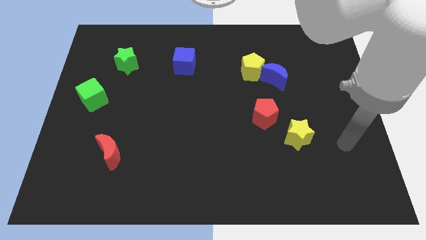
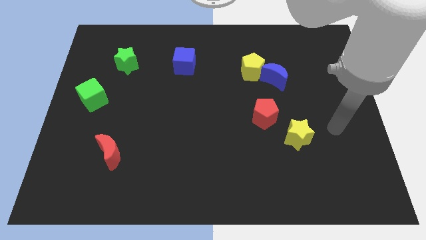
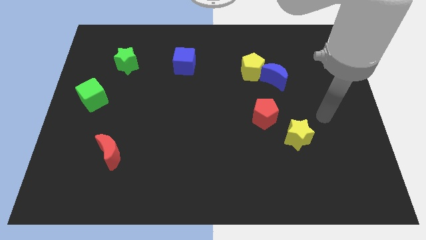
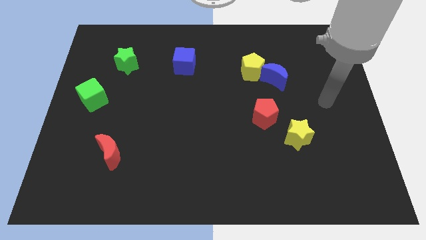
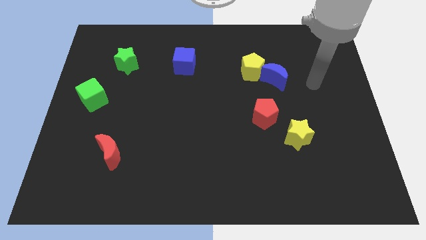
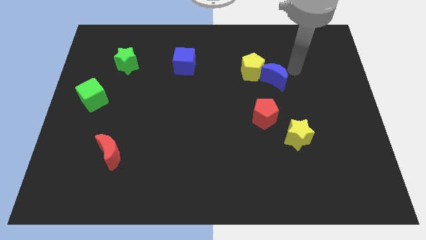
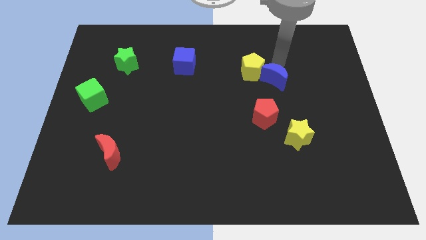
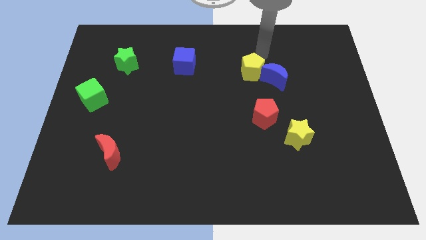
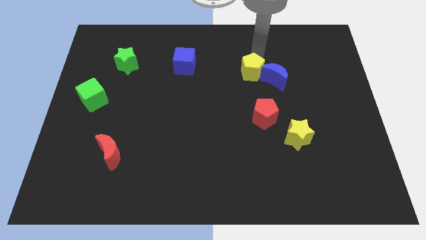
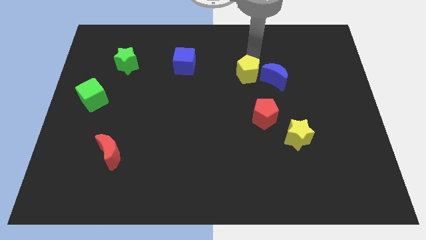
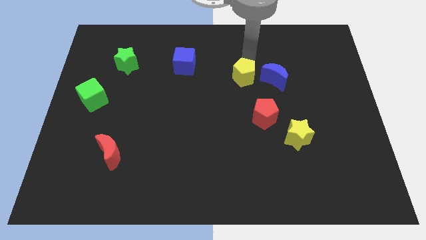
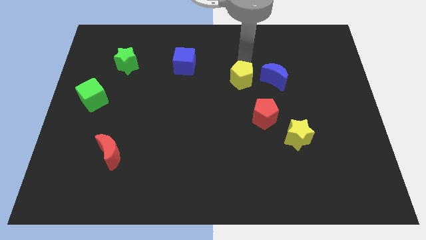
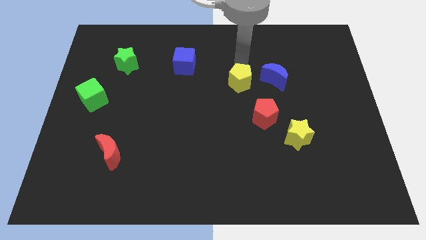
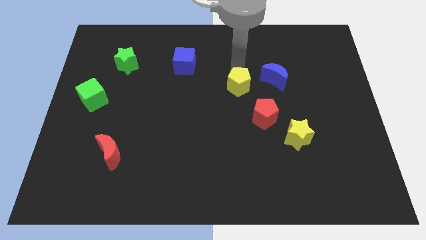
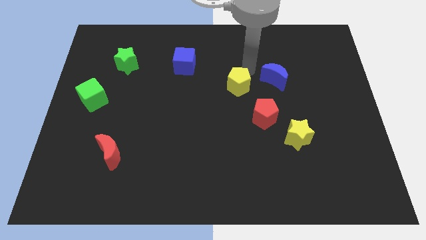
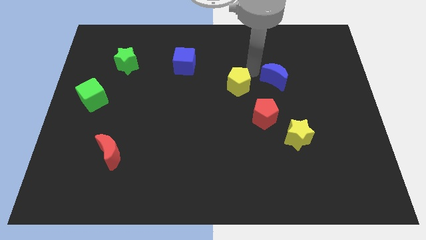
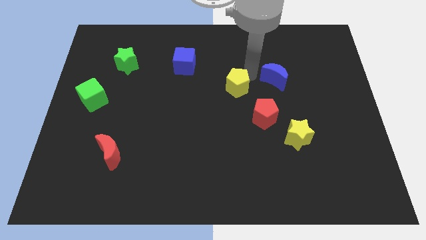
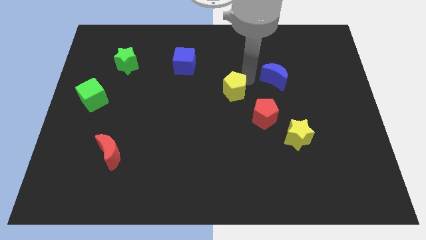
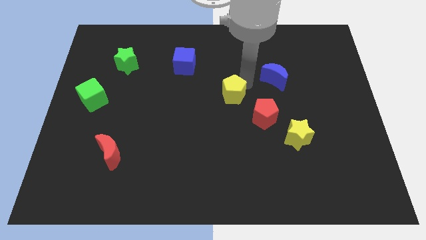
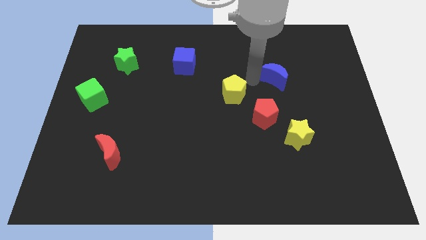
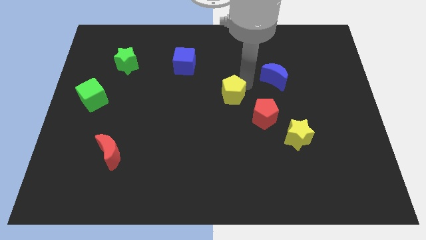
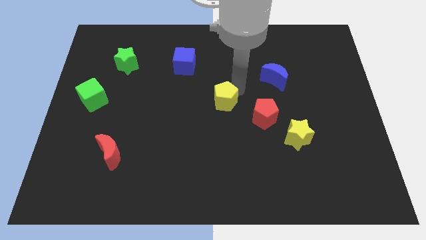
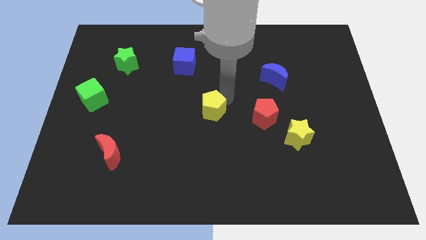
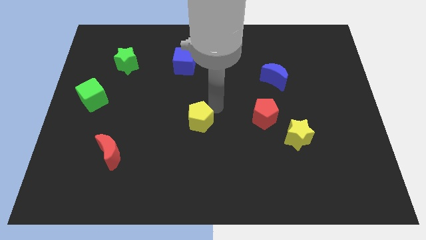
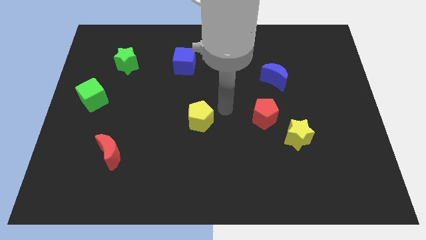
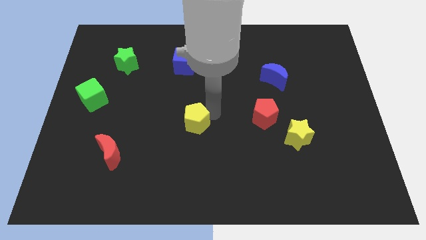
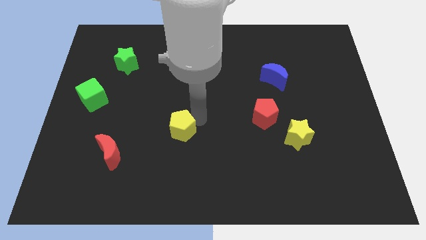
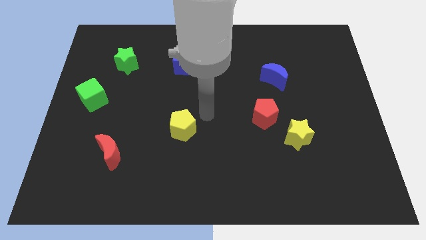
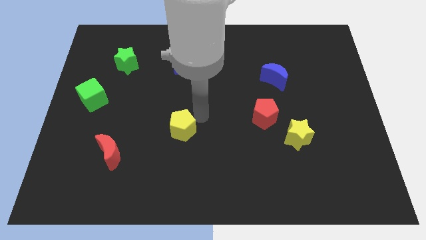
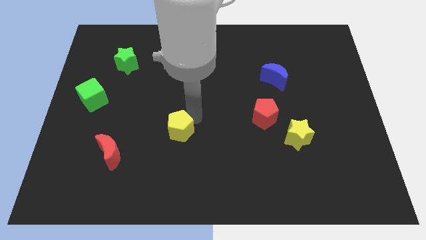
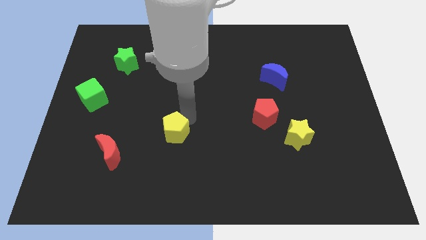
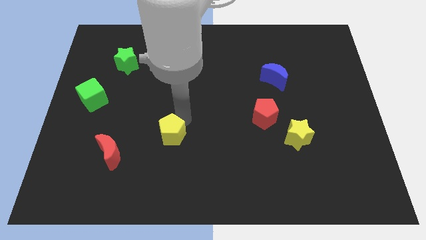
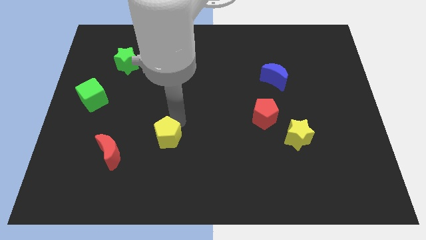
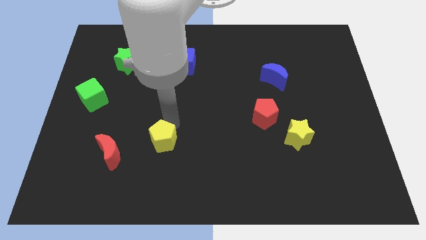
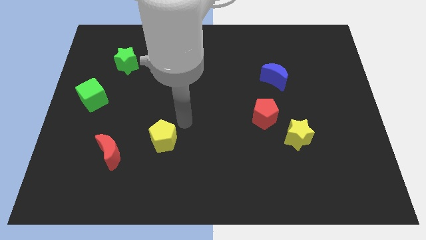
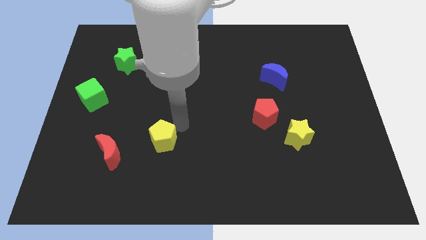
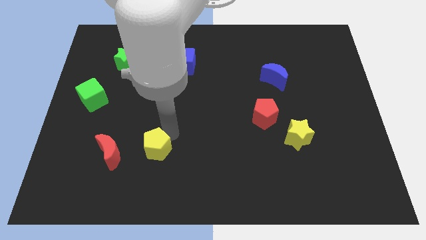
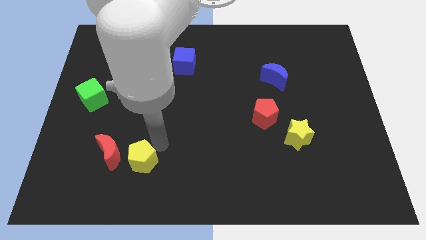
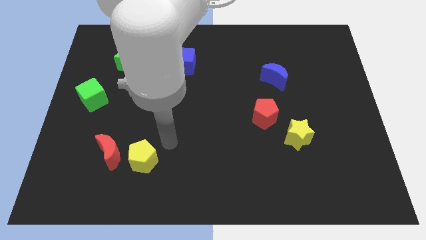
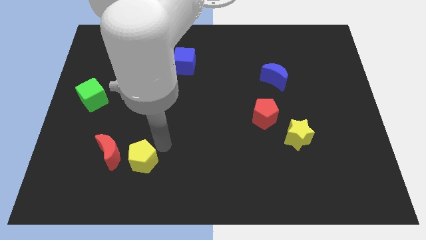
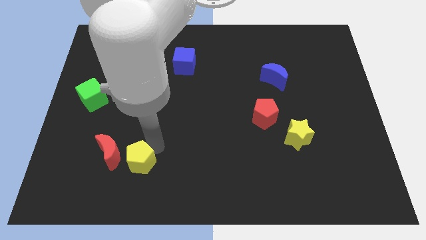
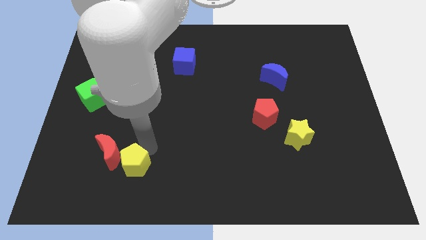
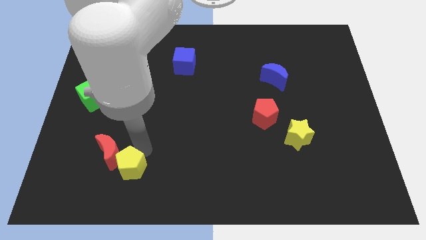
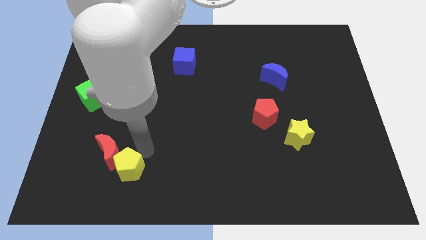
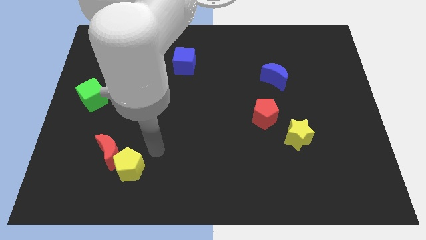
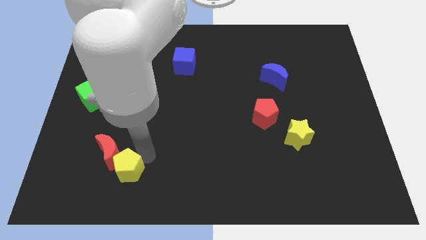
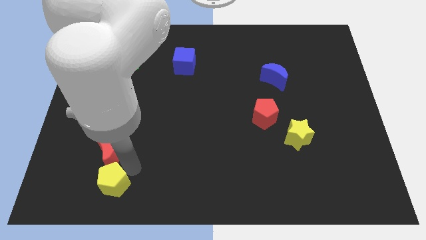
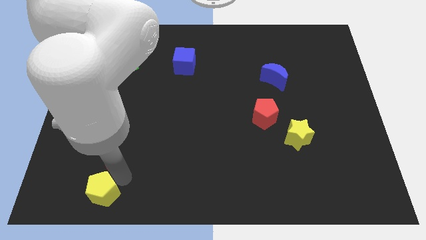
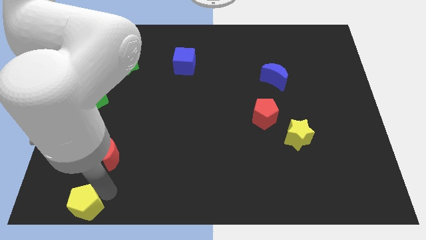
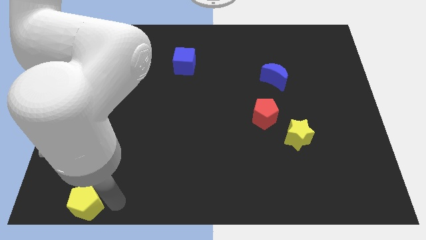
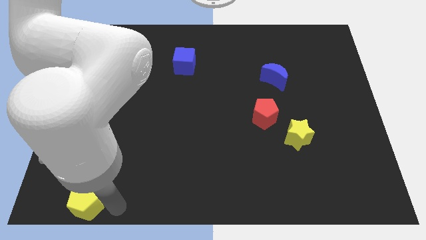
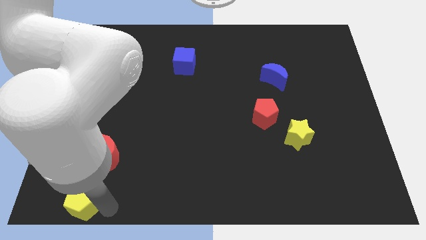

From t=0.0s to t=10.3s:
put the yellow pentagon to the bottom left corner

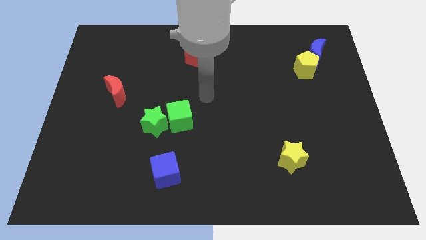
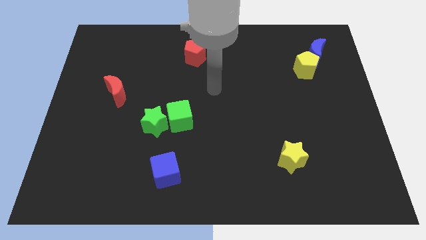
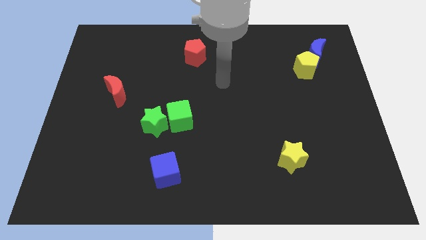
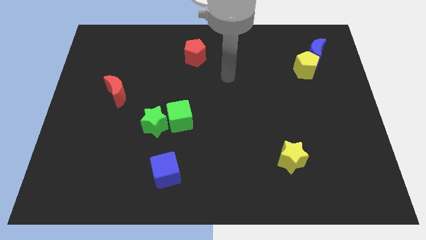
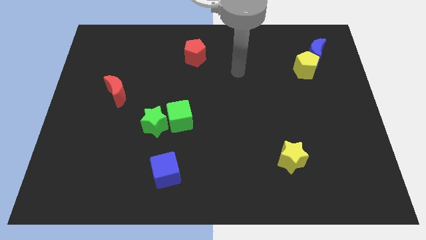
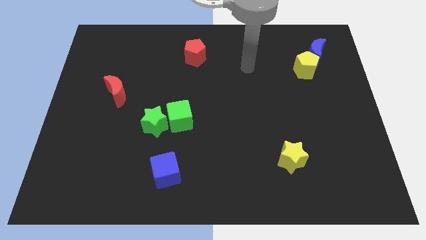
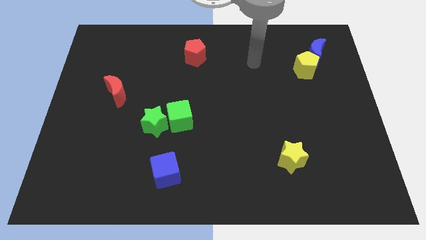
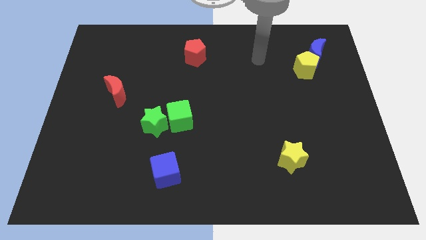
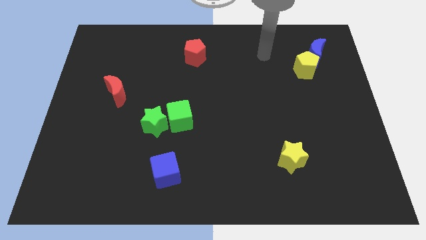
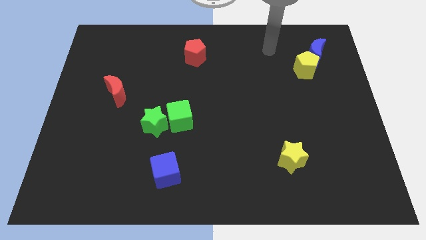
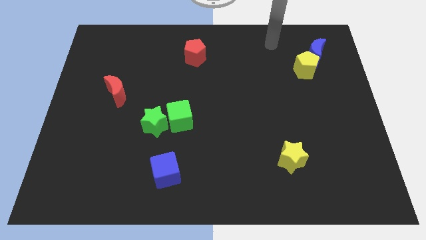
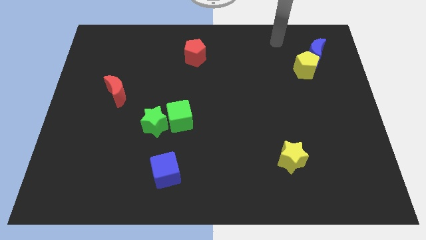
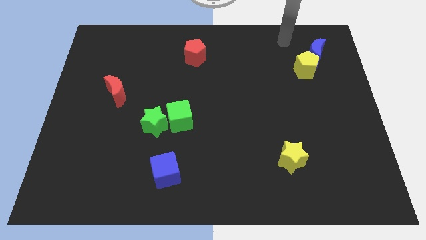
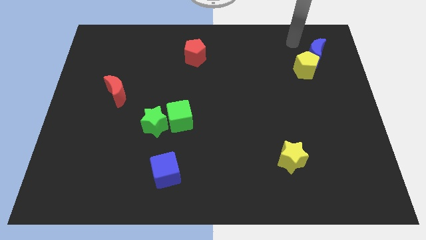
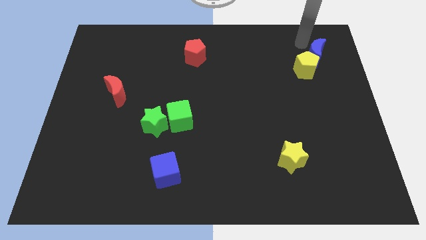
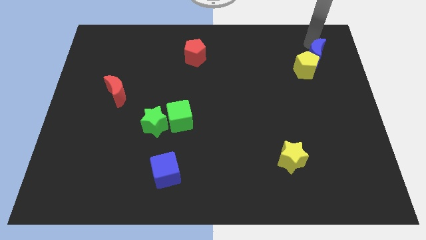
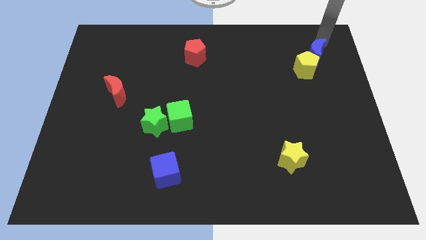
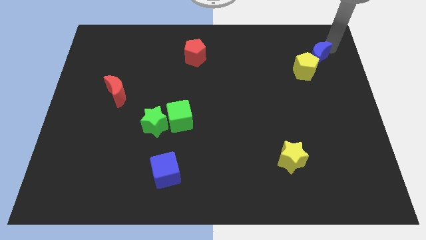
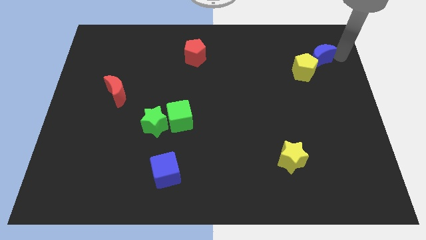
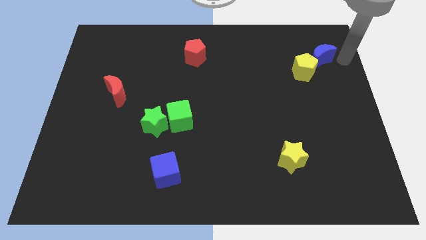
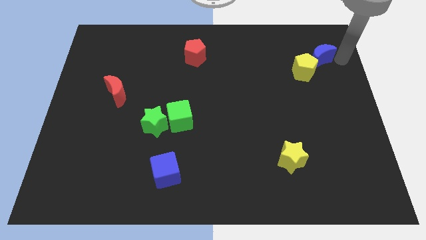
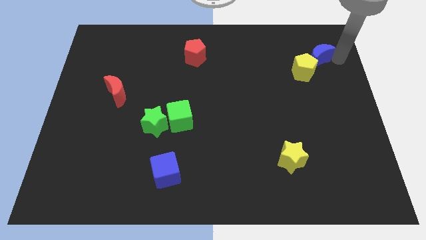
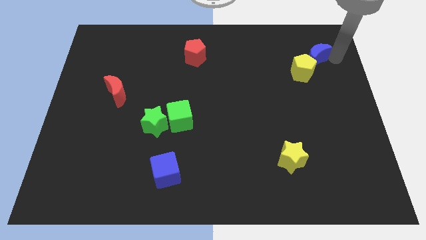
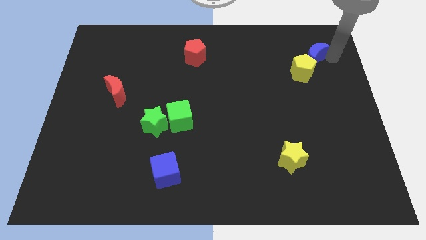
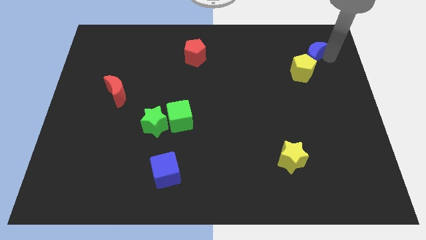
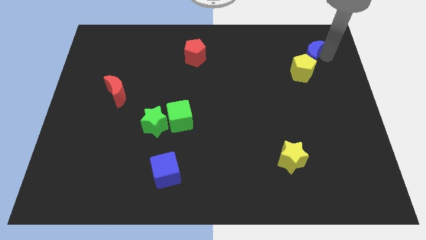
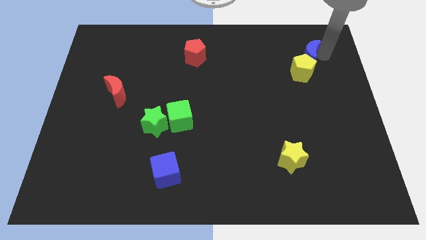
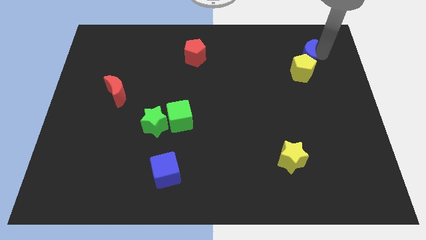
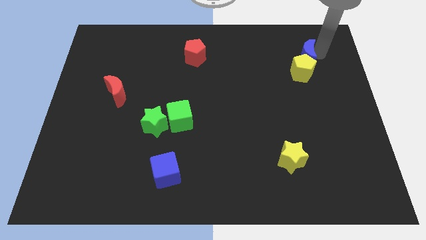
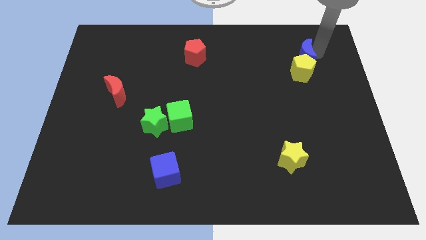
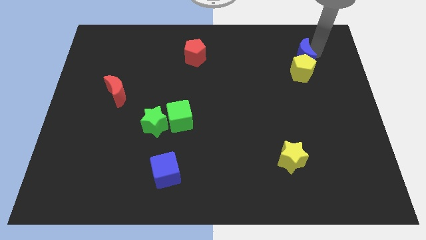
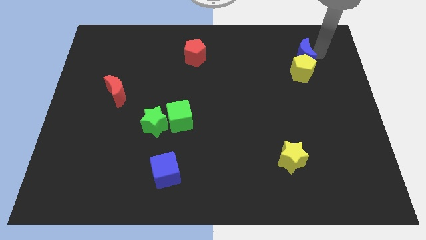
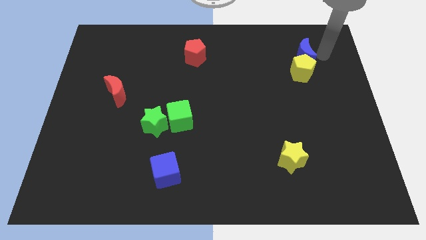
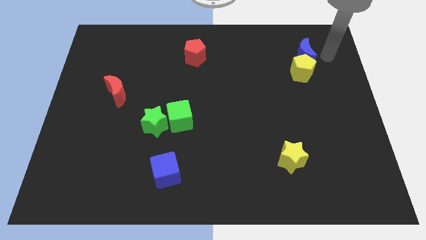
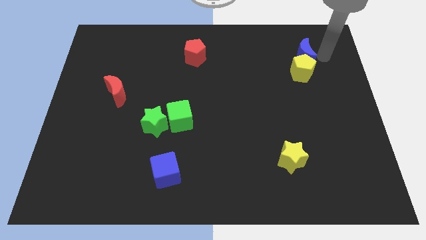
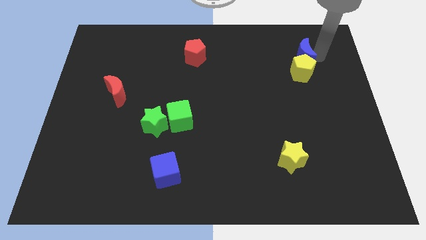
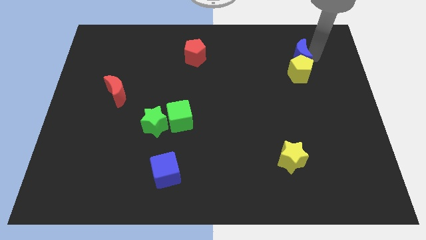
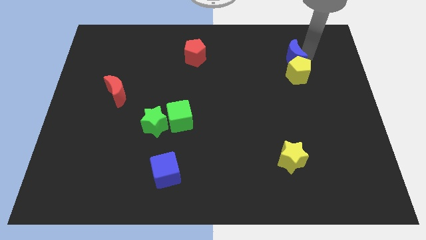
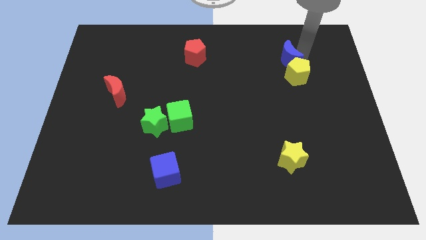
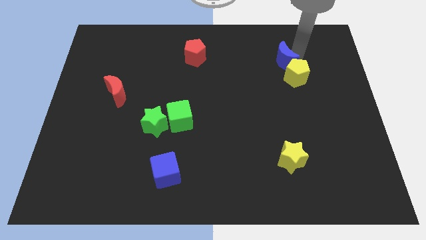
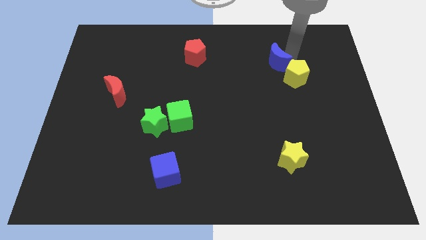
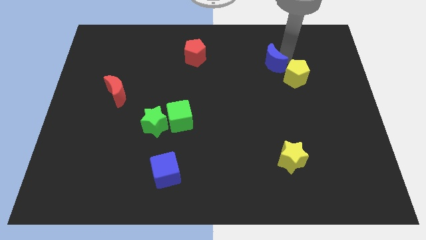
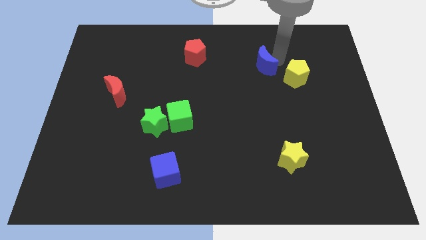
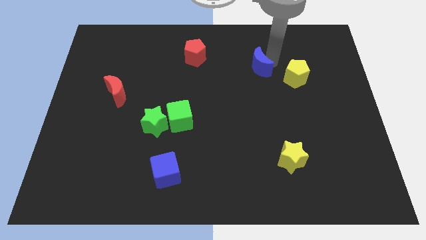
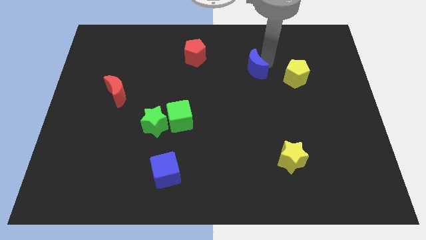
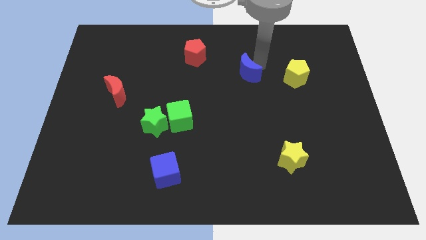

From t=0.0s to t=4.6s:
put the blue moon to the center of the board
